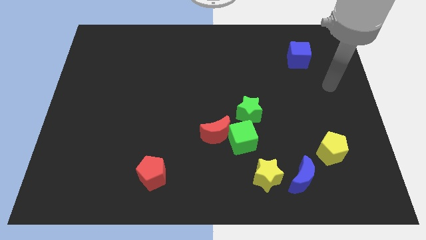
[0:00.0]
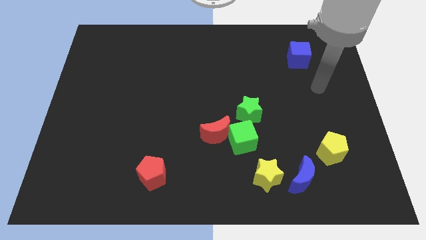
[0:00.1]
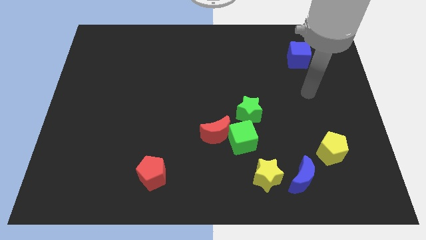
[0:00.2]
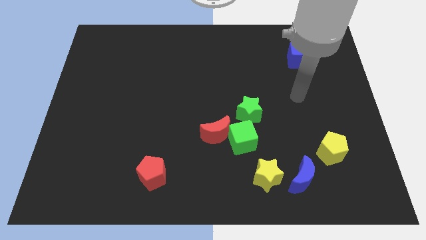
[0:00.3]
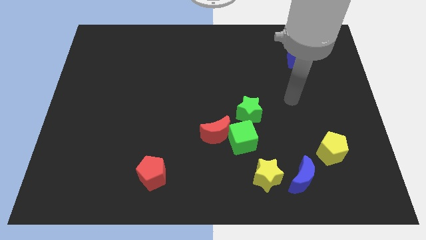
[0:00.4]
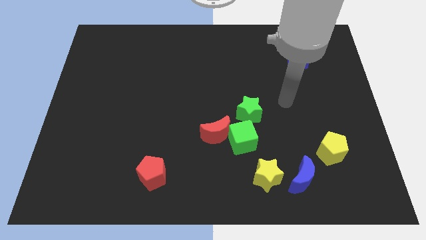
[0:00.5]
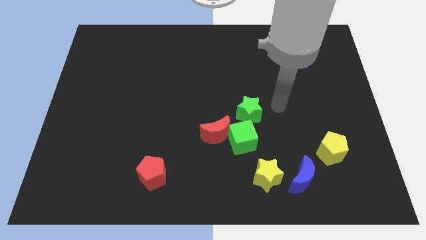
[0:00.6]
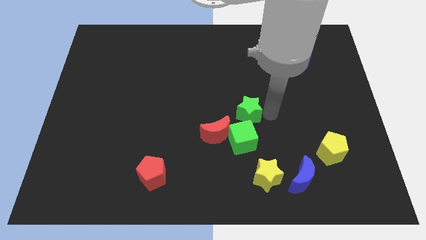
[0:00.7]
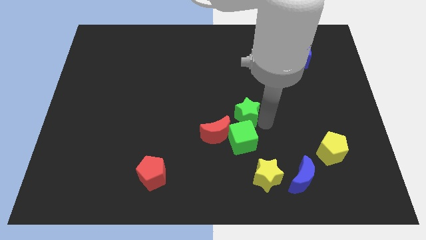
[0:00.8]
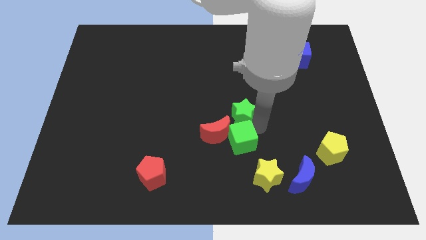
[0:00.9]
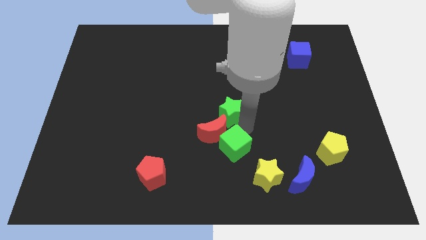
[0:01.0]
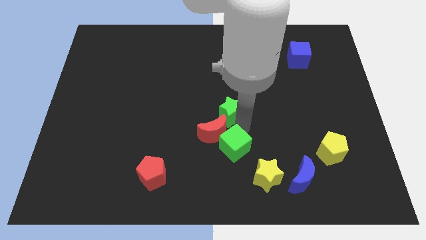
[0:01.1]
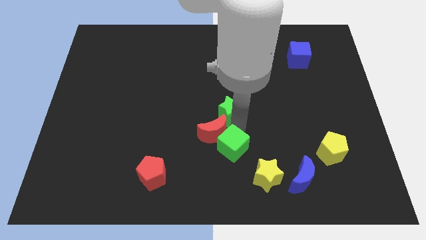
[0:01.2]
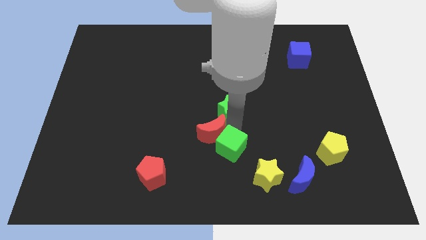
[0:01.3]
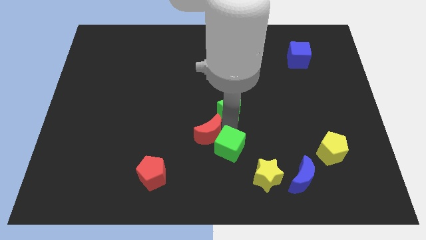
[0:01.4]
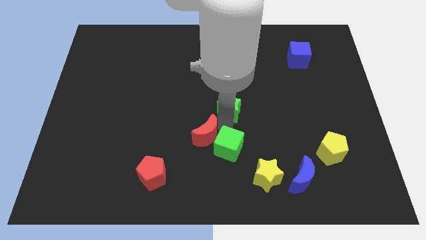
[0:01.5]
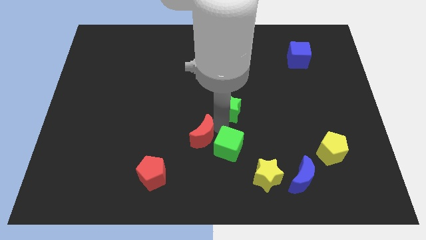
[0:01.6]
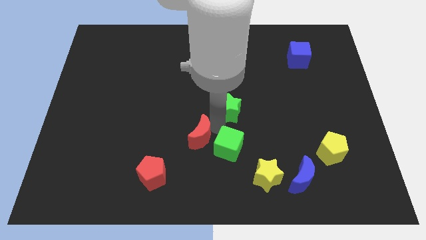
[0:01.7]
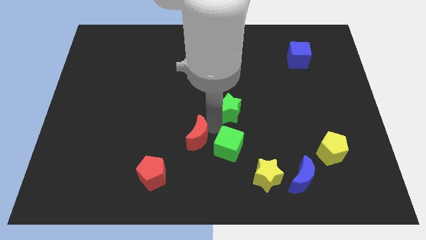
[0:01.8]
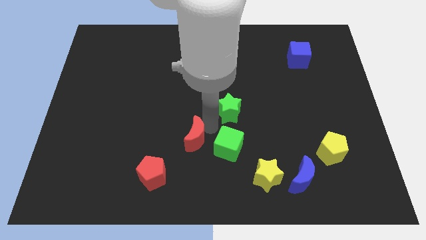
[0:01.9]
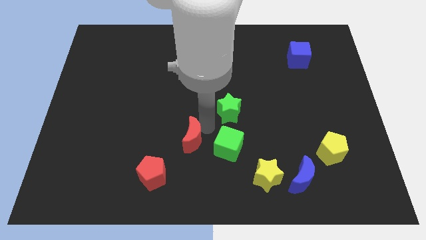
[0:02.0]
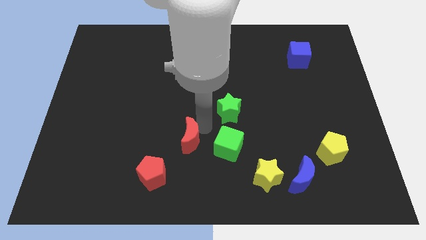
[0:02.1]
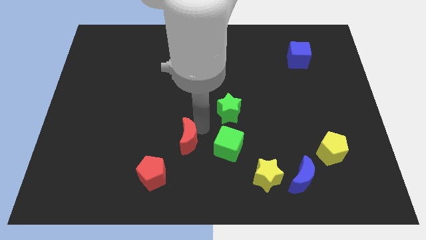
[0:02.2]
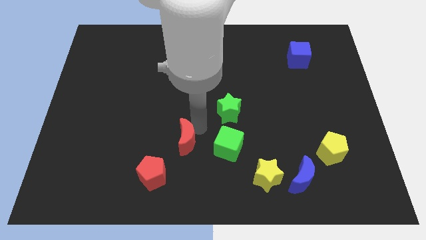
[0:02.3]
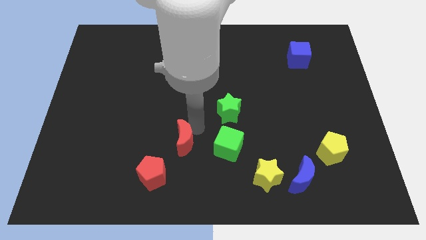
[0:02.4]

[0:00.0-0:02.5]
move the red moon away from the green cube and green star

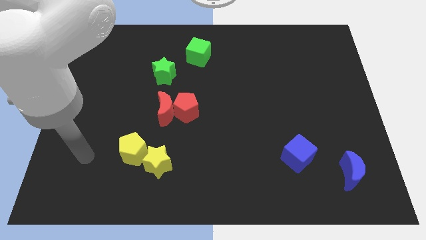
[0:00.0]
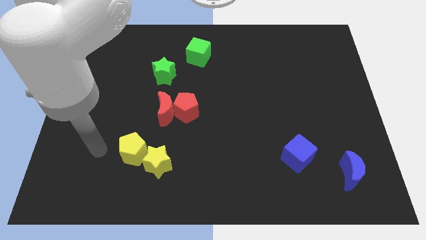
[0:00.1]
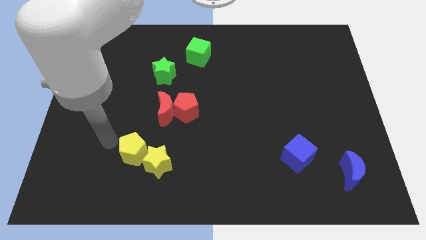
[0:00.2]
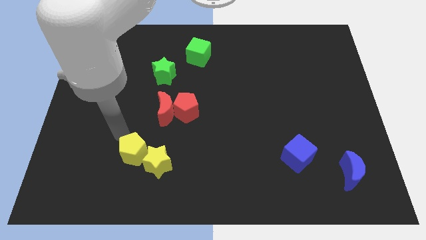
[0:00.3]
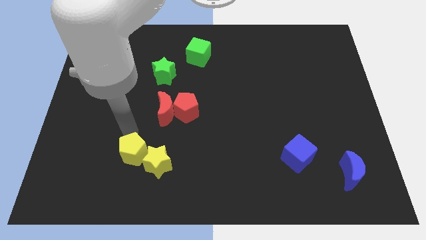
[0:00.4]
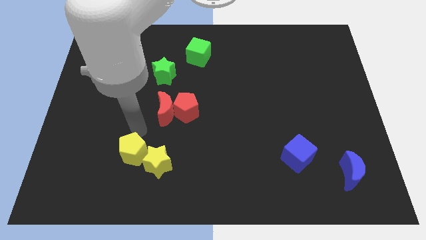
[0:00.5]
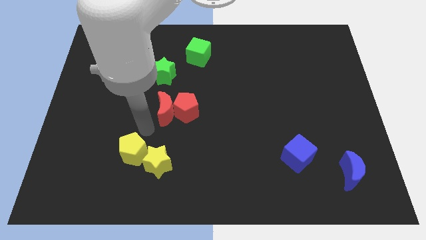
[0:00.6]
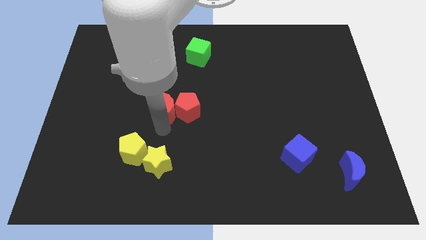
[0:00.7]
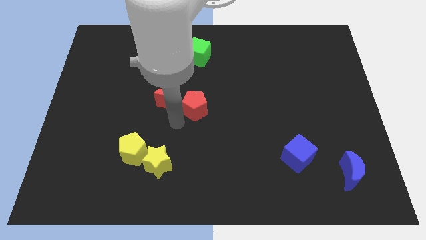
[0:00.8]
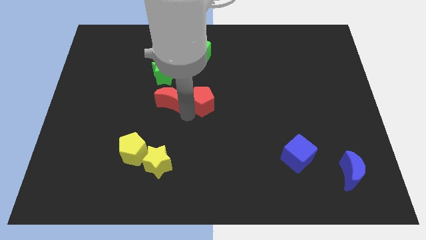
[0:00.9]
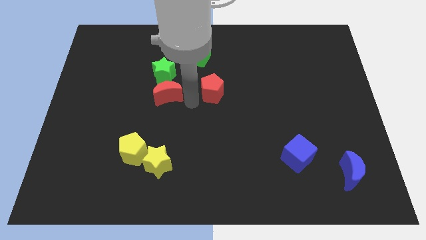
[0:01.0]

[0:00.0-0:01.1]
separate the red moon from the red pentagon

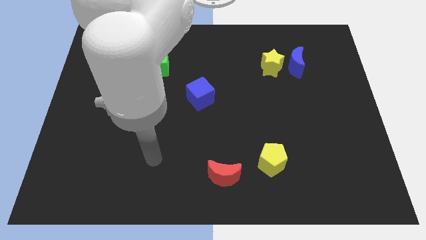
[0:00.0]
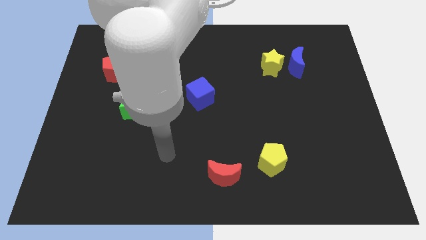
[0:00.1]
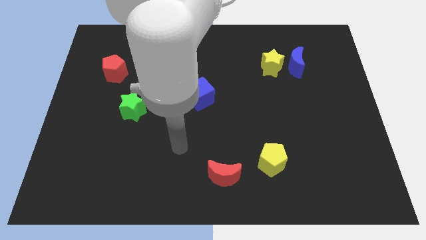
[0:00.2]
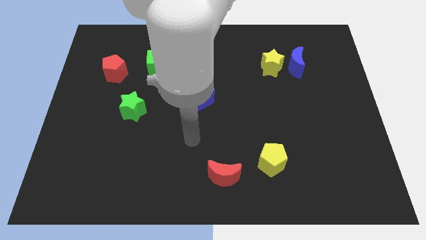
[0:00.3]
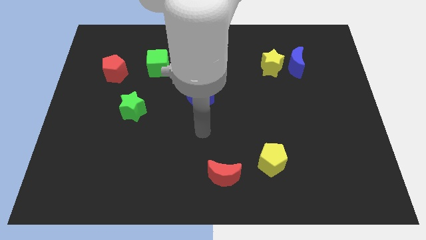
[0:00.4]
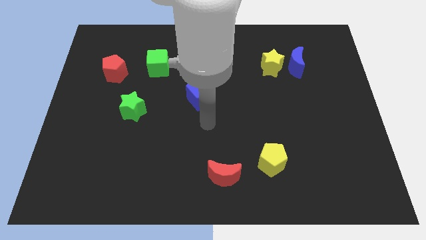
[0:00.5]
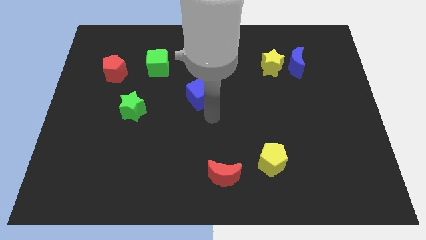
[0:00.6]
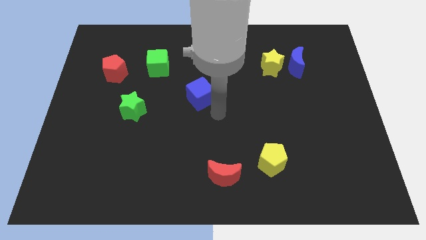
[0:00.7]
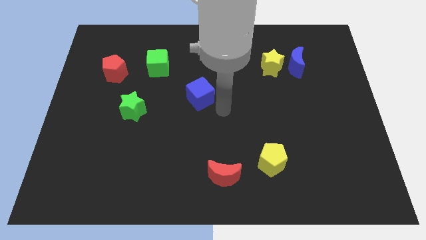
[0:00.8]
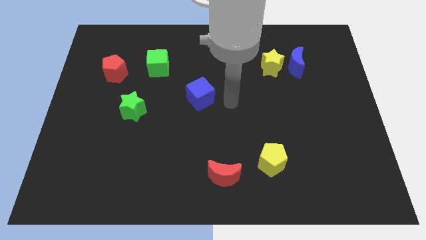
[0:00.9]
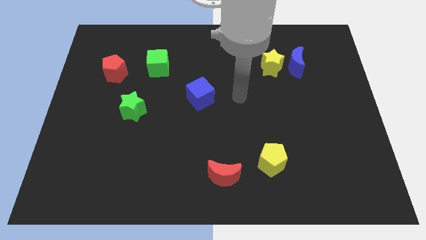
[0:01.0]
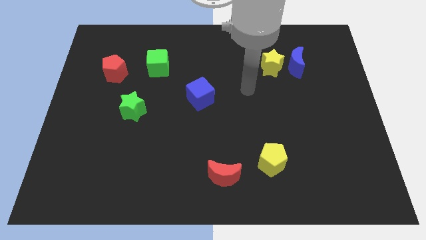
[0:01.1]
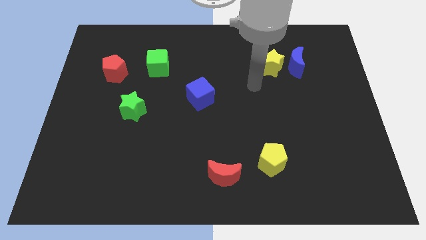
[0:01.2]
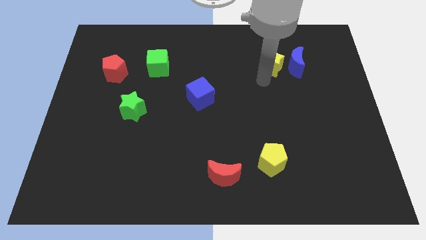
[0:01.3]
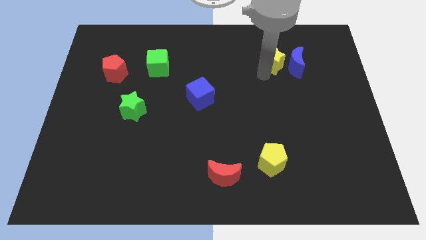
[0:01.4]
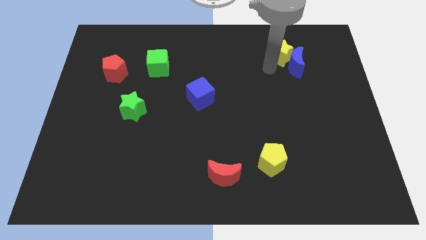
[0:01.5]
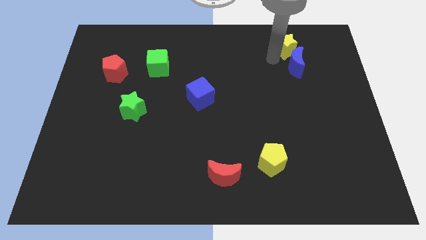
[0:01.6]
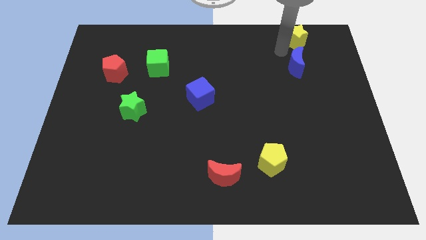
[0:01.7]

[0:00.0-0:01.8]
pull the blue moon apart from the yellow star

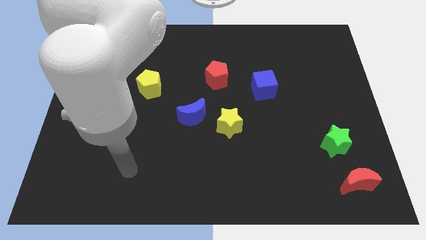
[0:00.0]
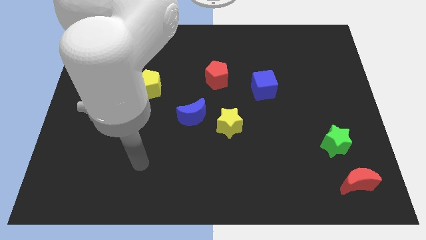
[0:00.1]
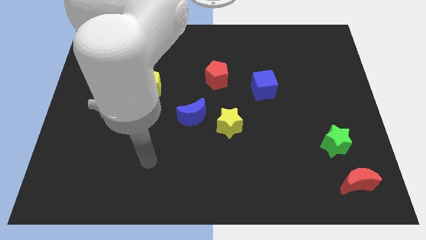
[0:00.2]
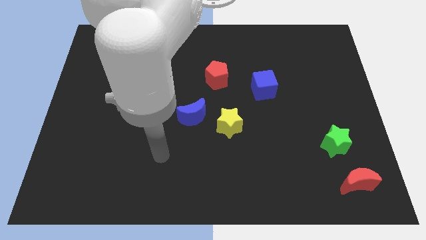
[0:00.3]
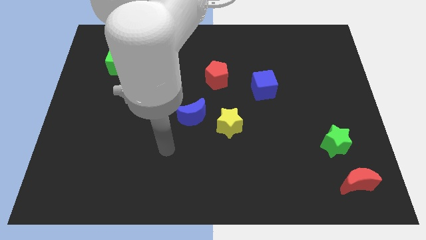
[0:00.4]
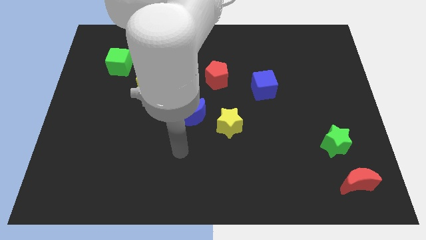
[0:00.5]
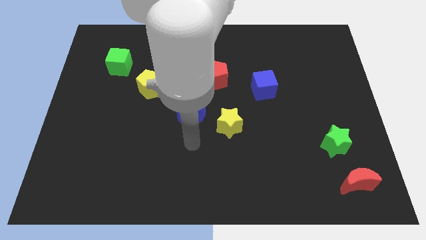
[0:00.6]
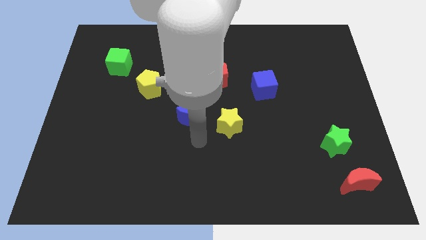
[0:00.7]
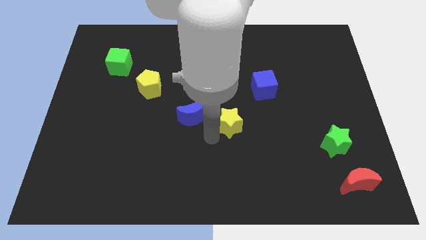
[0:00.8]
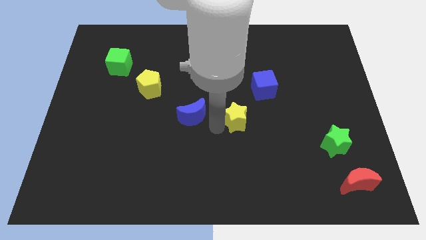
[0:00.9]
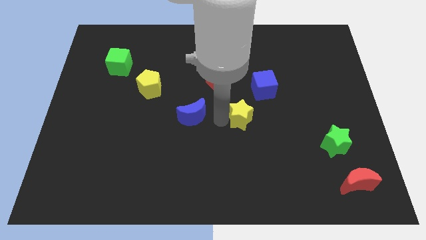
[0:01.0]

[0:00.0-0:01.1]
separate the blue moon from the yellow star

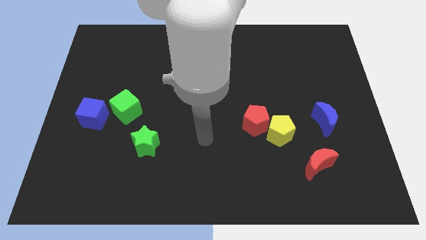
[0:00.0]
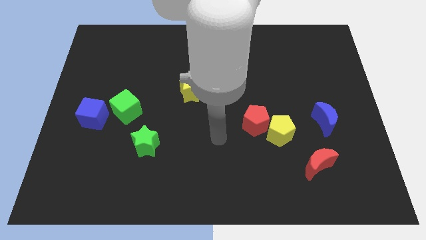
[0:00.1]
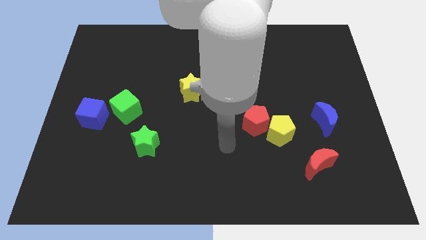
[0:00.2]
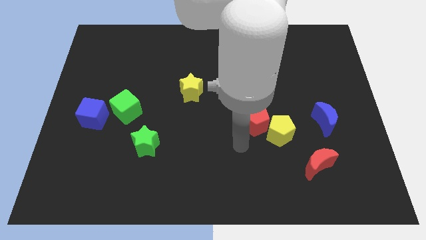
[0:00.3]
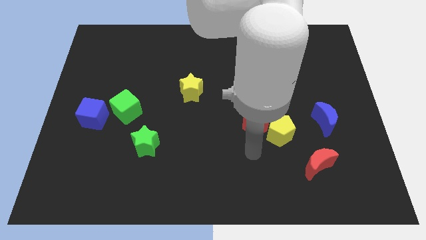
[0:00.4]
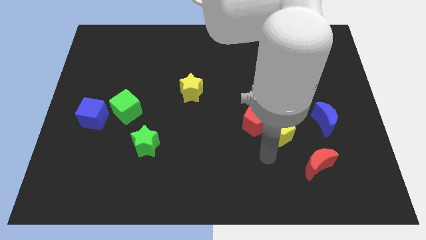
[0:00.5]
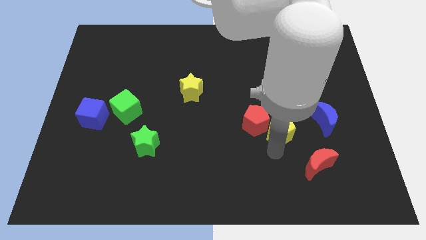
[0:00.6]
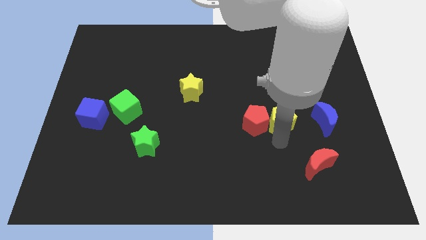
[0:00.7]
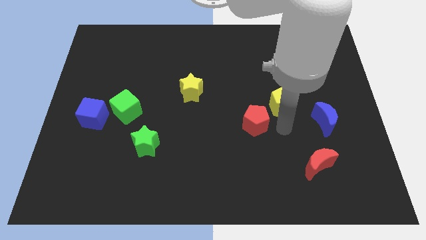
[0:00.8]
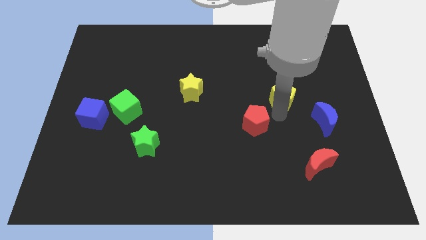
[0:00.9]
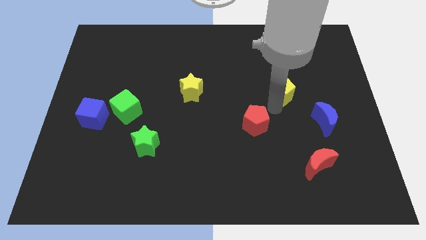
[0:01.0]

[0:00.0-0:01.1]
separate the red pentagon from the yellow pentagon

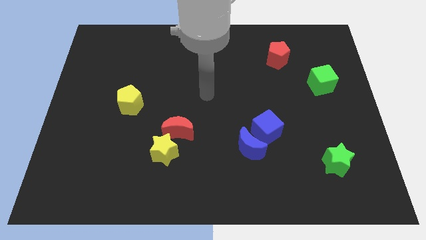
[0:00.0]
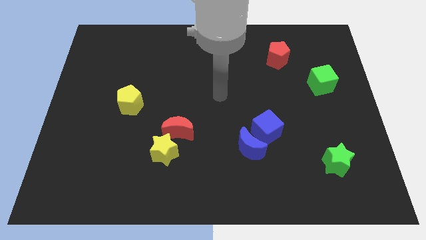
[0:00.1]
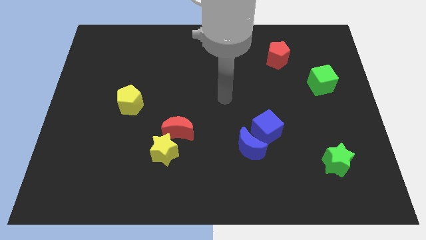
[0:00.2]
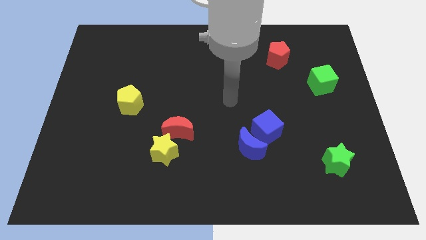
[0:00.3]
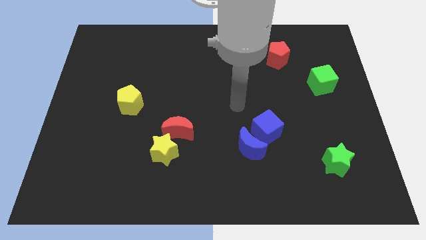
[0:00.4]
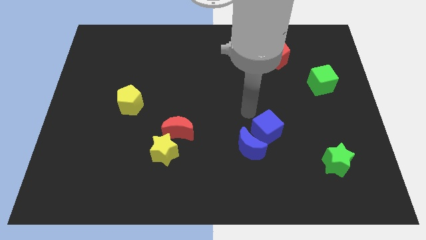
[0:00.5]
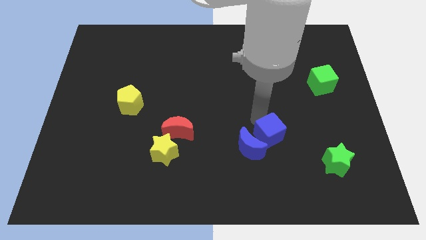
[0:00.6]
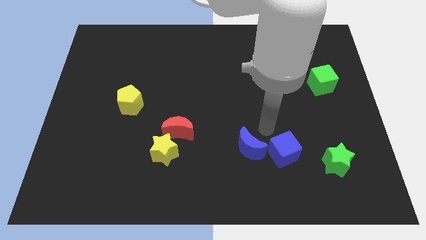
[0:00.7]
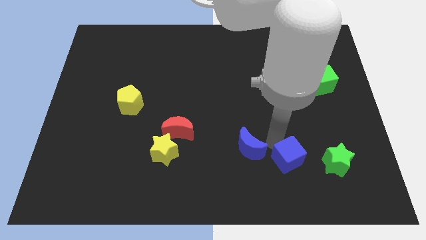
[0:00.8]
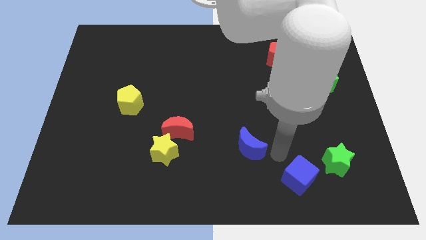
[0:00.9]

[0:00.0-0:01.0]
pull the blue moon apart from the blue cube

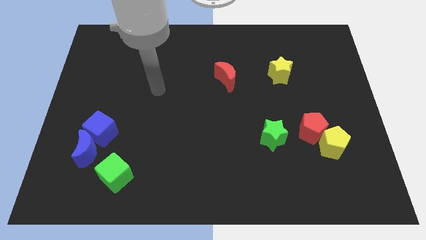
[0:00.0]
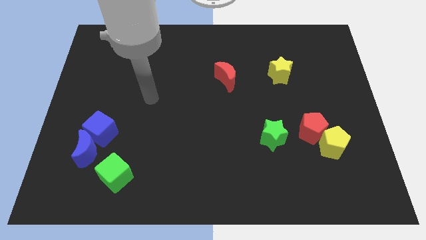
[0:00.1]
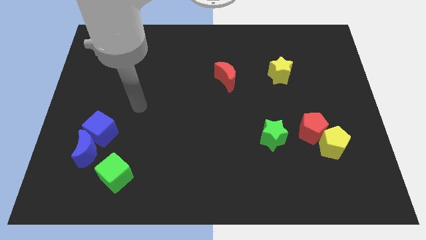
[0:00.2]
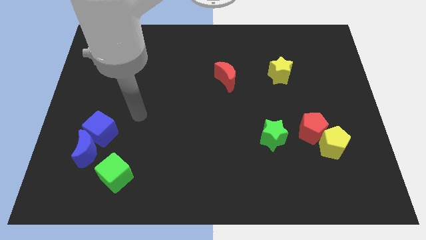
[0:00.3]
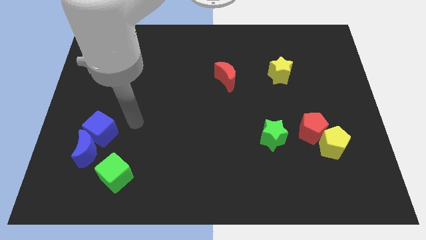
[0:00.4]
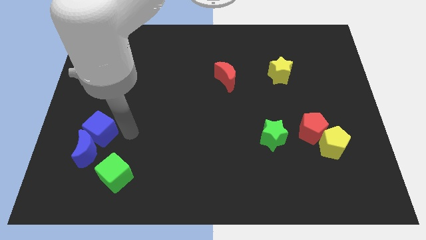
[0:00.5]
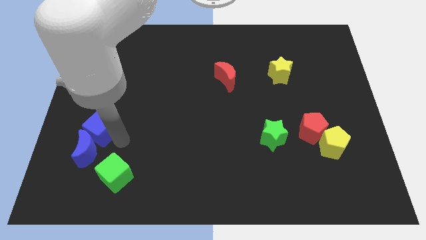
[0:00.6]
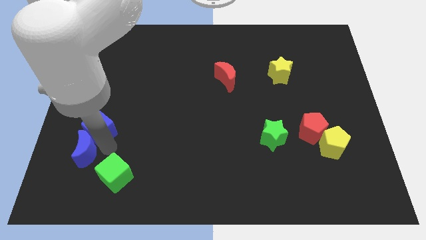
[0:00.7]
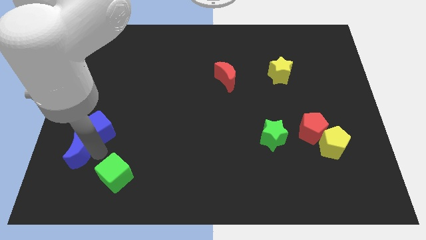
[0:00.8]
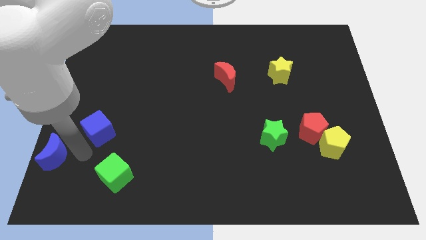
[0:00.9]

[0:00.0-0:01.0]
separate the blue cube from the blue moon
